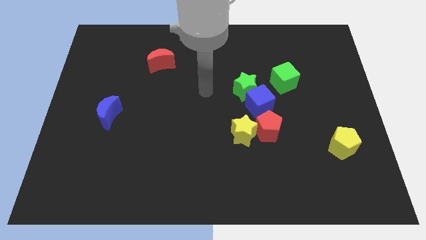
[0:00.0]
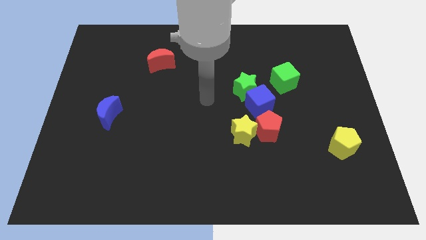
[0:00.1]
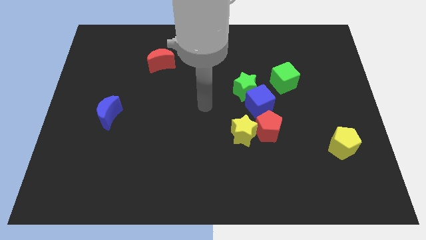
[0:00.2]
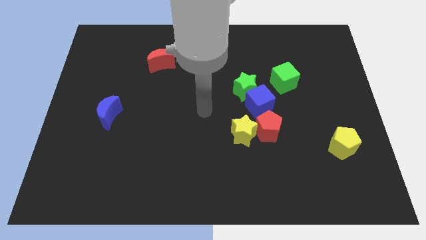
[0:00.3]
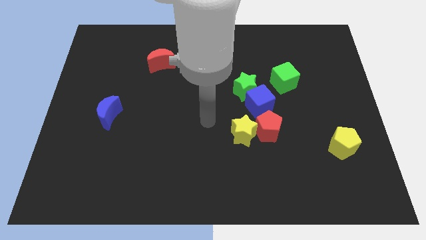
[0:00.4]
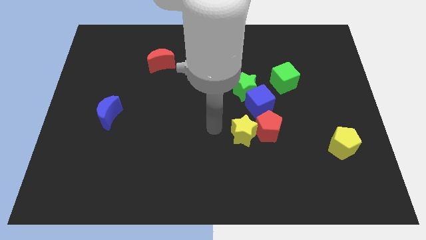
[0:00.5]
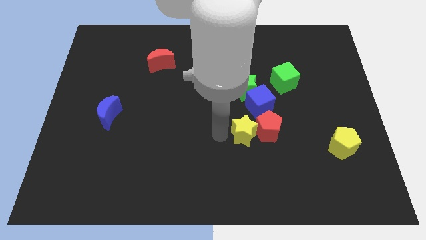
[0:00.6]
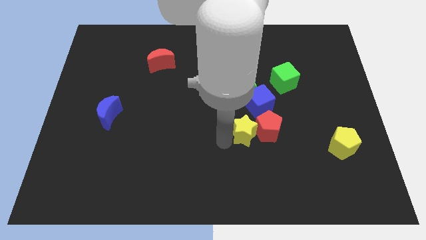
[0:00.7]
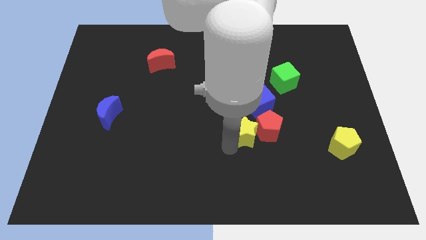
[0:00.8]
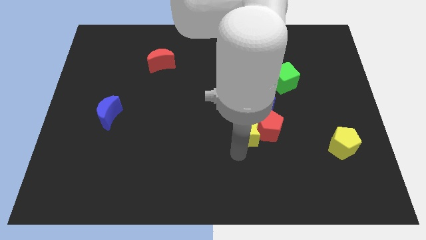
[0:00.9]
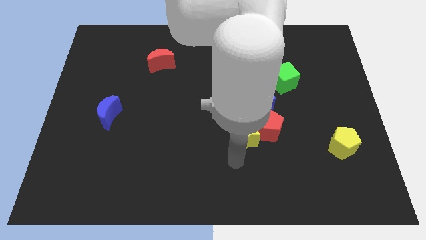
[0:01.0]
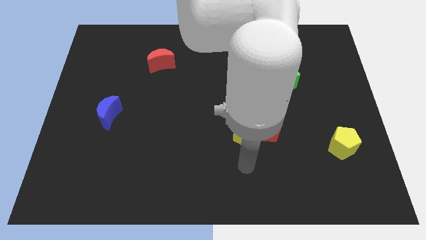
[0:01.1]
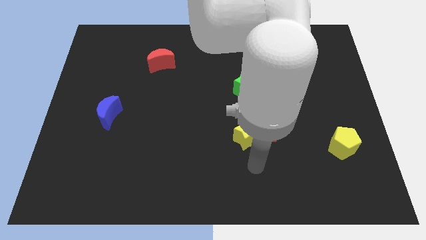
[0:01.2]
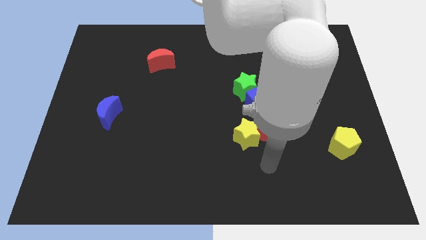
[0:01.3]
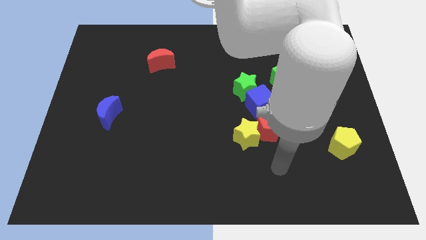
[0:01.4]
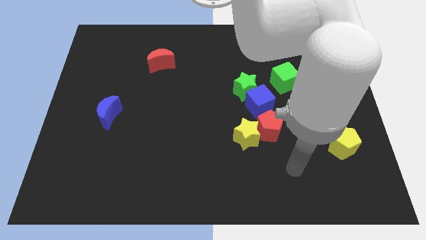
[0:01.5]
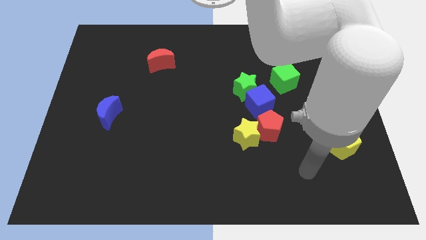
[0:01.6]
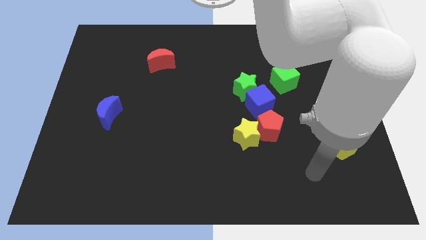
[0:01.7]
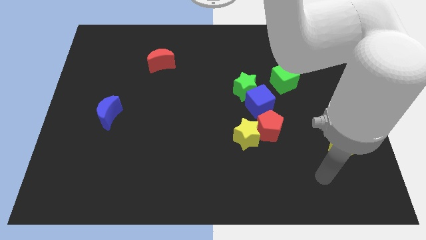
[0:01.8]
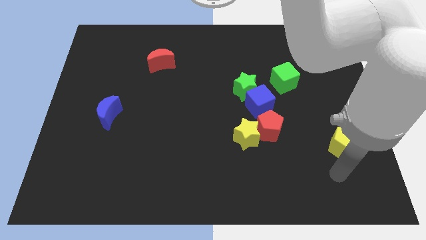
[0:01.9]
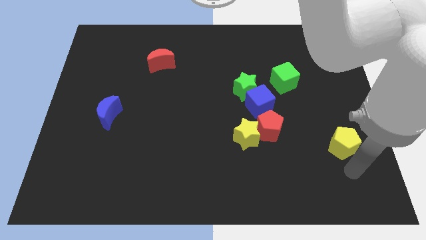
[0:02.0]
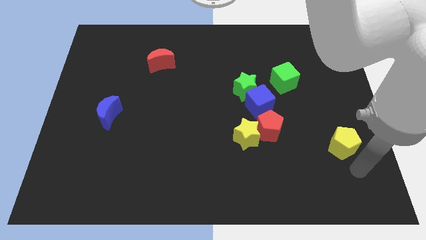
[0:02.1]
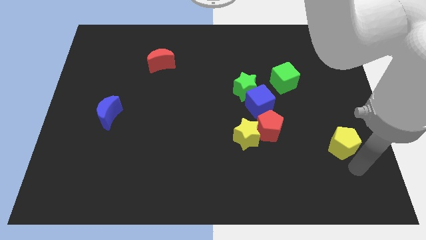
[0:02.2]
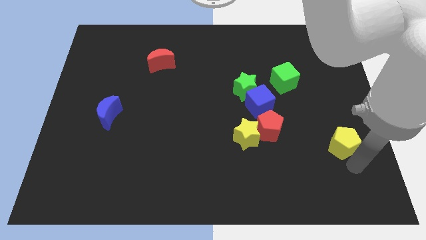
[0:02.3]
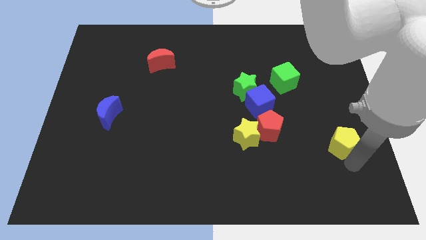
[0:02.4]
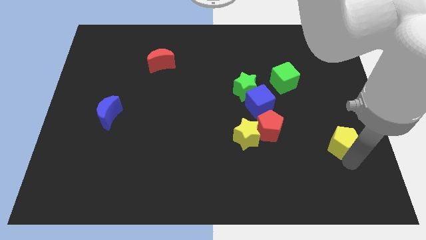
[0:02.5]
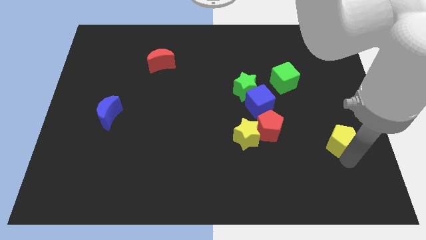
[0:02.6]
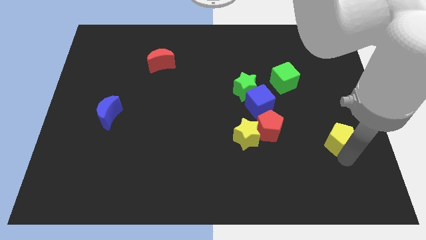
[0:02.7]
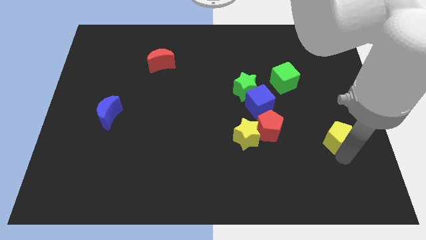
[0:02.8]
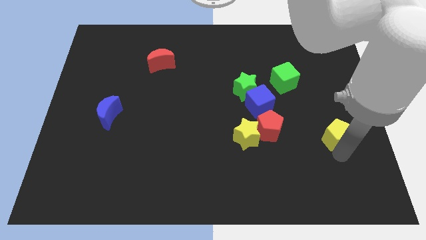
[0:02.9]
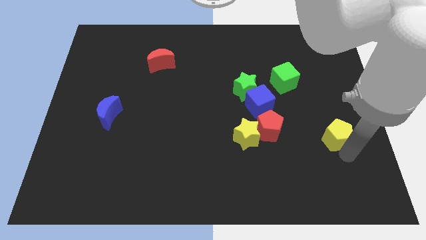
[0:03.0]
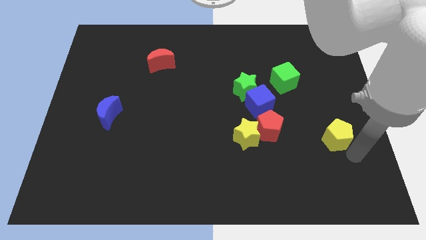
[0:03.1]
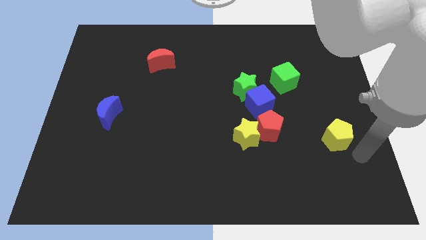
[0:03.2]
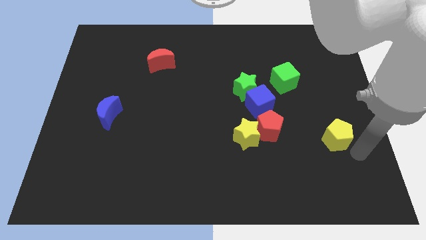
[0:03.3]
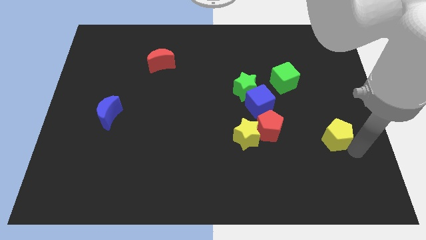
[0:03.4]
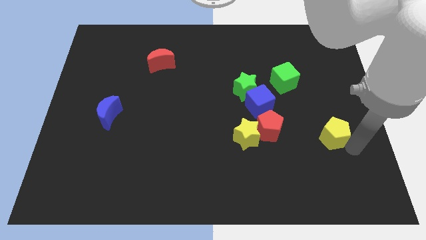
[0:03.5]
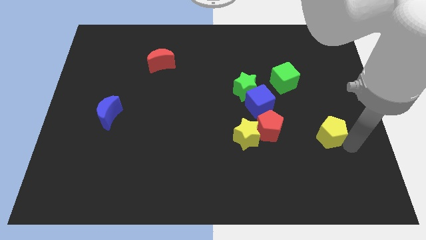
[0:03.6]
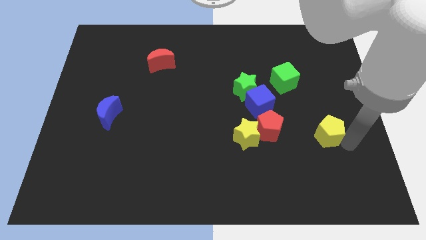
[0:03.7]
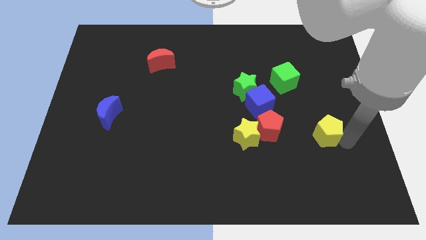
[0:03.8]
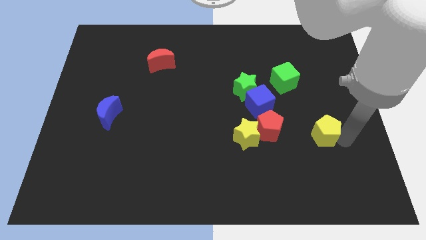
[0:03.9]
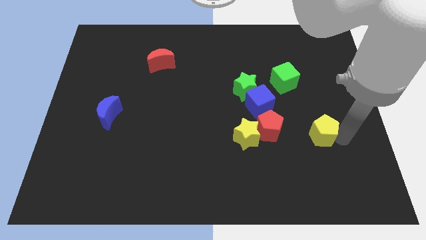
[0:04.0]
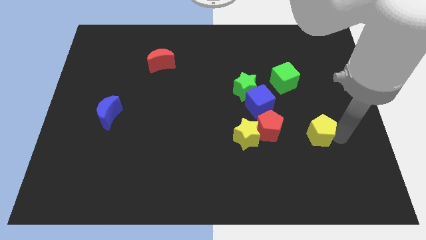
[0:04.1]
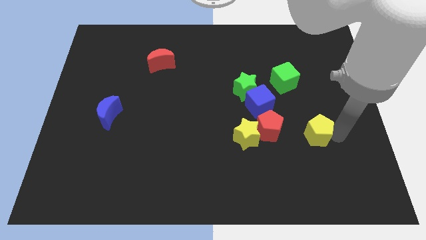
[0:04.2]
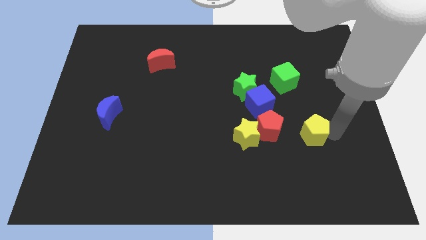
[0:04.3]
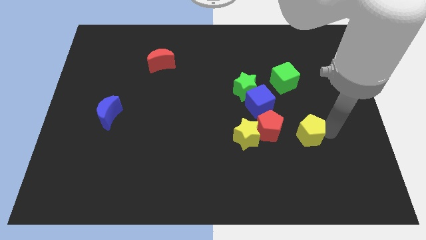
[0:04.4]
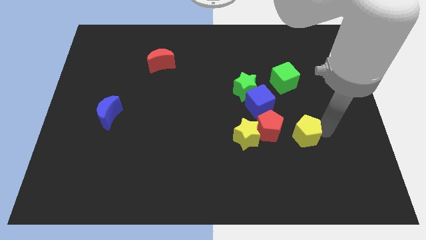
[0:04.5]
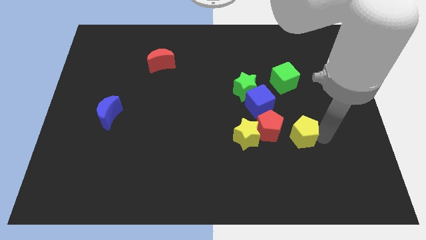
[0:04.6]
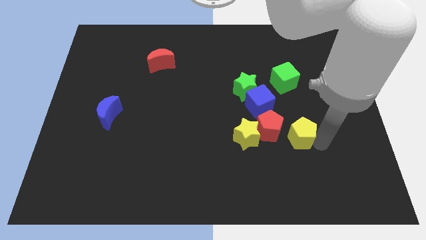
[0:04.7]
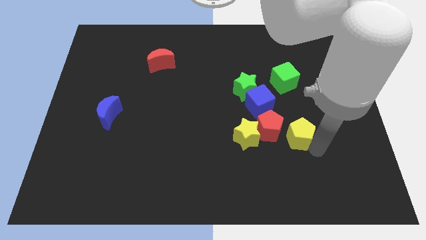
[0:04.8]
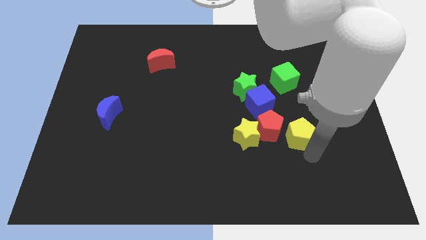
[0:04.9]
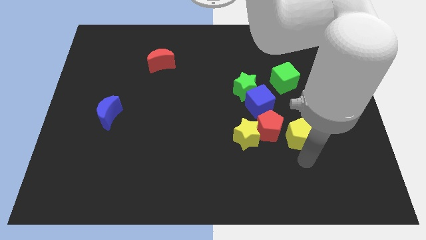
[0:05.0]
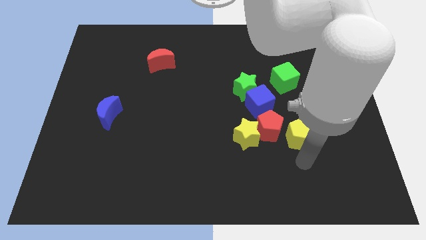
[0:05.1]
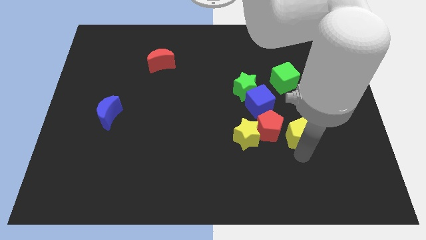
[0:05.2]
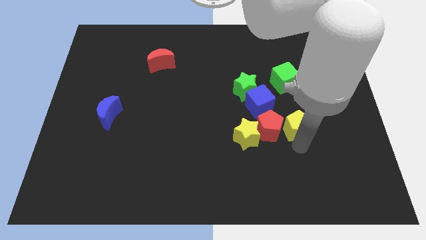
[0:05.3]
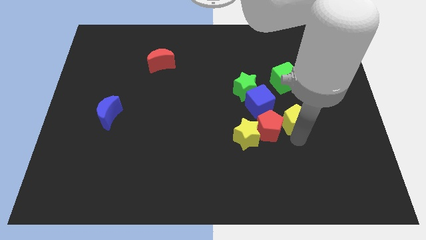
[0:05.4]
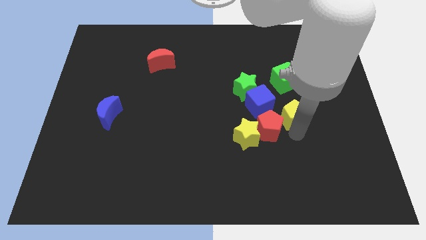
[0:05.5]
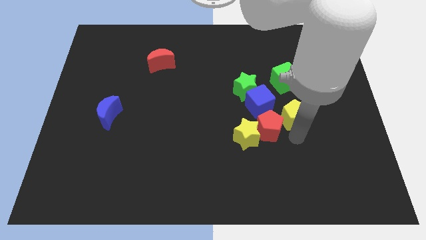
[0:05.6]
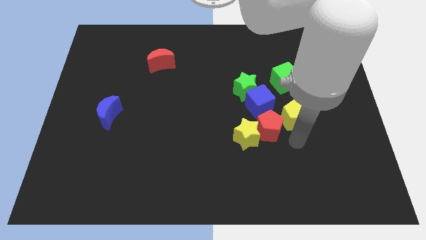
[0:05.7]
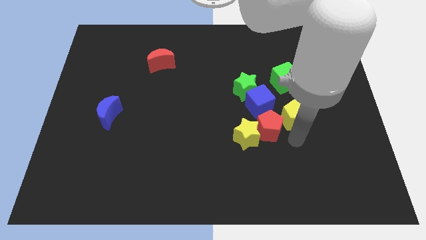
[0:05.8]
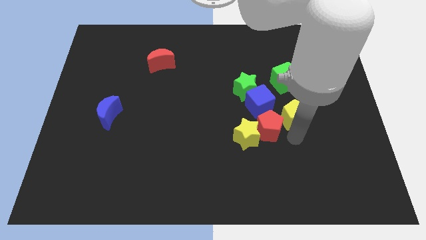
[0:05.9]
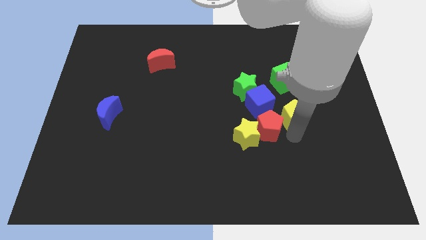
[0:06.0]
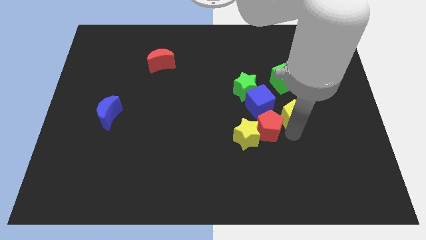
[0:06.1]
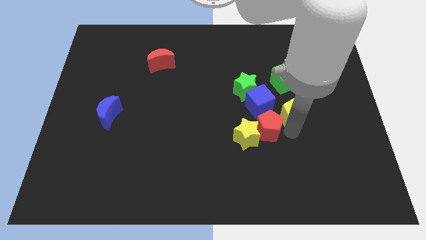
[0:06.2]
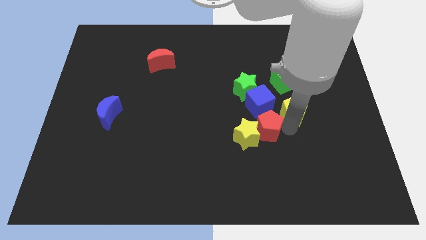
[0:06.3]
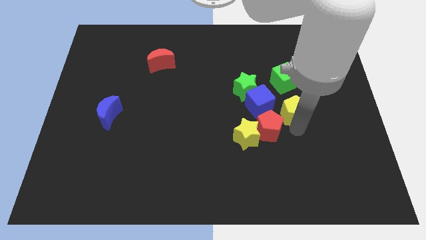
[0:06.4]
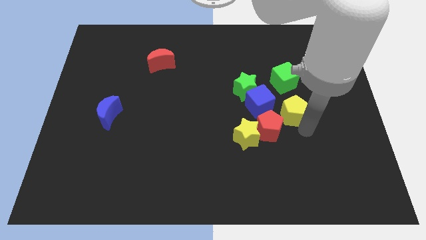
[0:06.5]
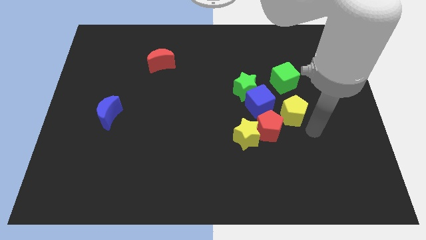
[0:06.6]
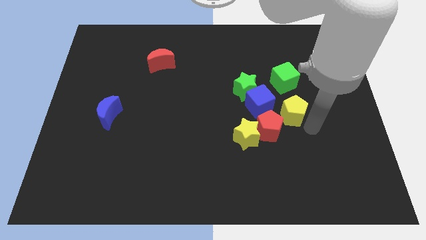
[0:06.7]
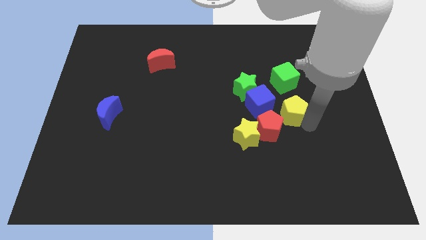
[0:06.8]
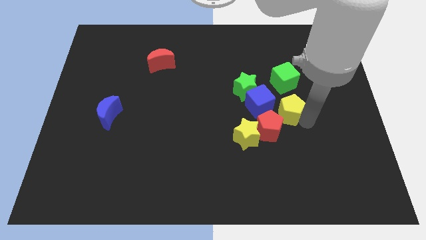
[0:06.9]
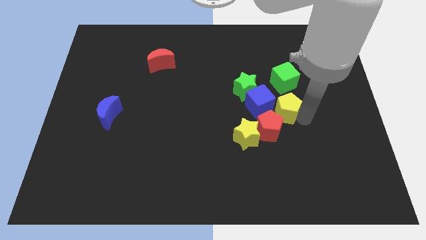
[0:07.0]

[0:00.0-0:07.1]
move the yellow pentagon above the red pentagon

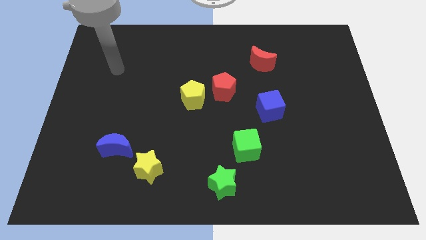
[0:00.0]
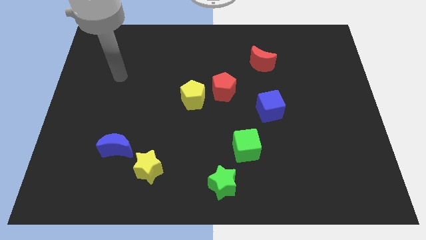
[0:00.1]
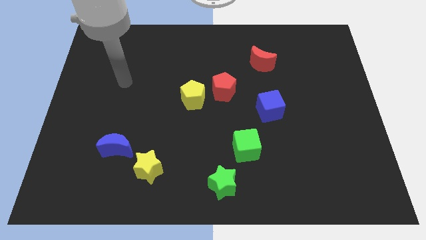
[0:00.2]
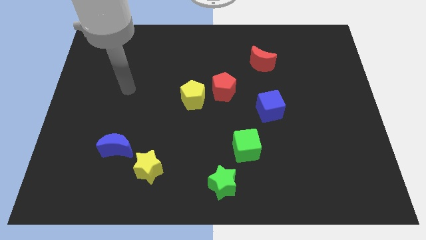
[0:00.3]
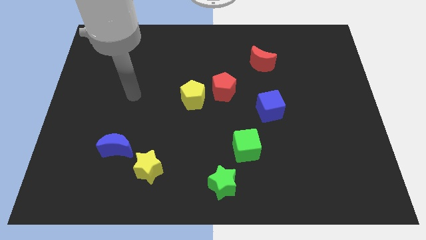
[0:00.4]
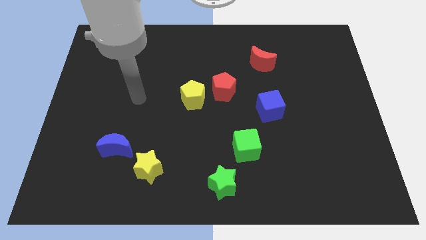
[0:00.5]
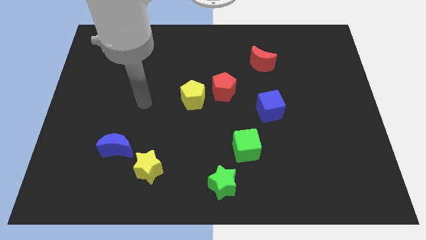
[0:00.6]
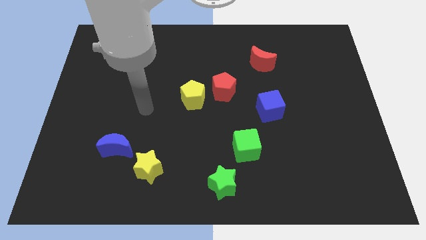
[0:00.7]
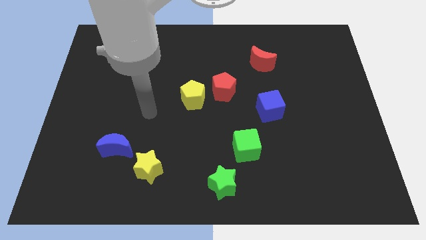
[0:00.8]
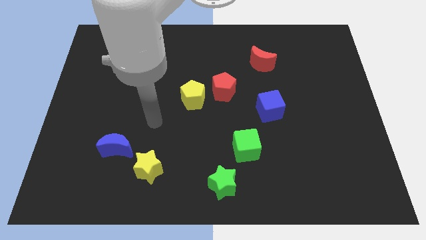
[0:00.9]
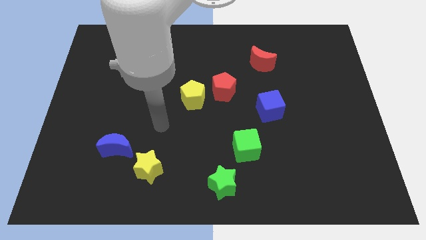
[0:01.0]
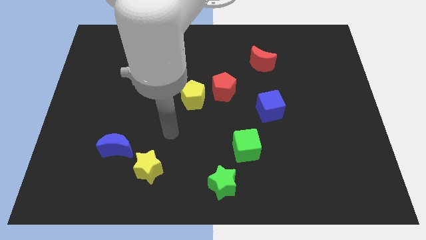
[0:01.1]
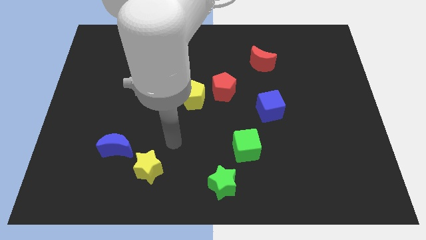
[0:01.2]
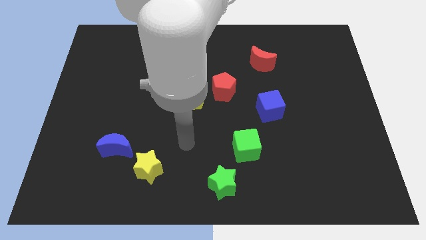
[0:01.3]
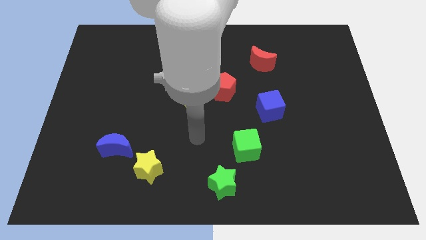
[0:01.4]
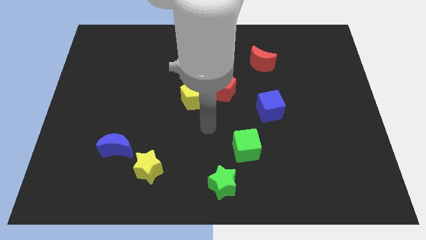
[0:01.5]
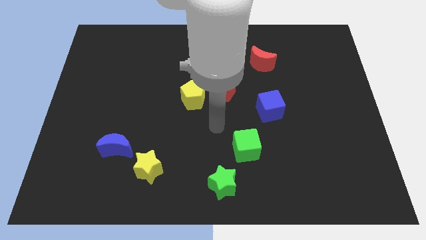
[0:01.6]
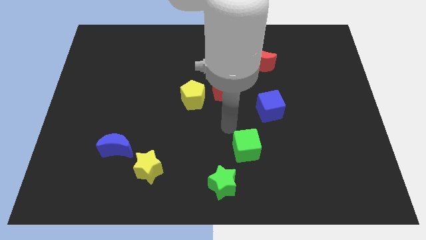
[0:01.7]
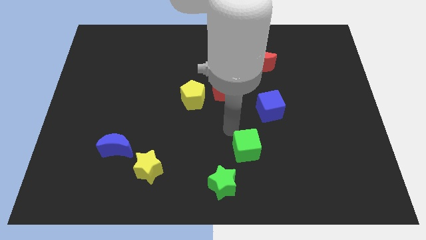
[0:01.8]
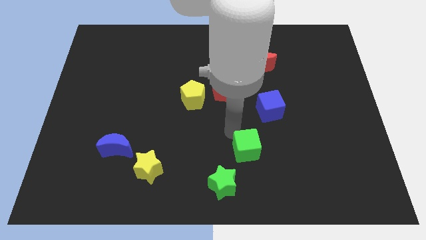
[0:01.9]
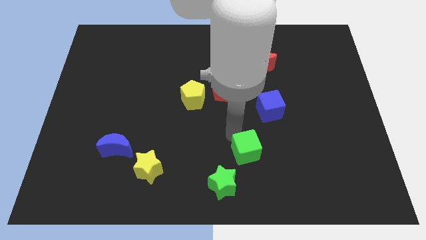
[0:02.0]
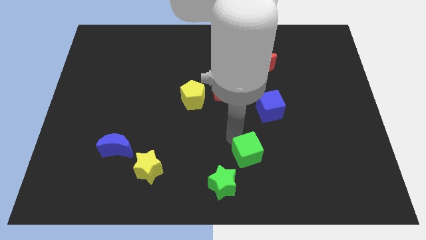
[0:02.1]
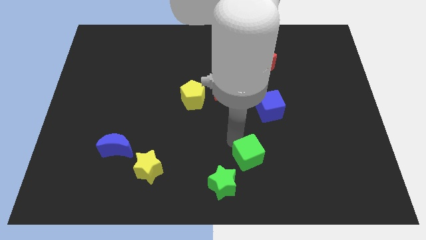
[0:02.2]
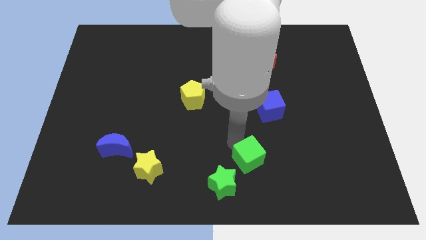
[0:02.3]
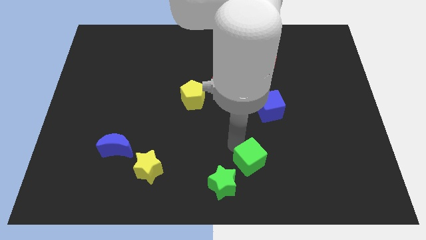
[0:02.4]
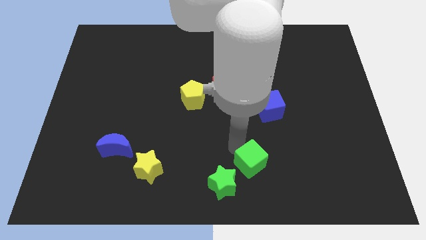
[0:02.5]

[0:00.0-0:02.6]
put the green cube to the right of the green star
